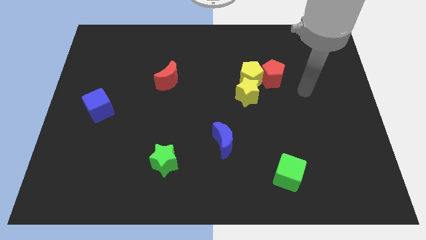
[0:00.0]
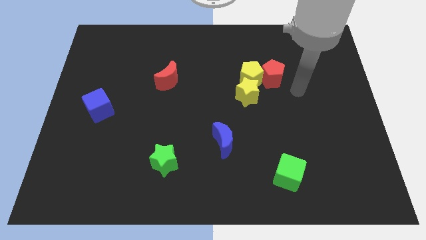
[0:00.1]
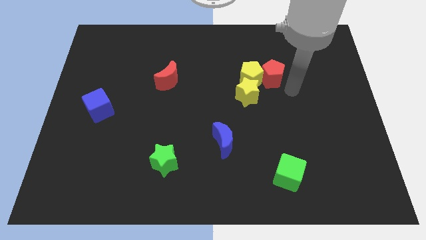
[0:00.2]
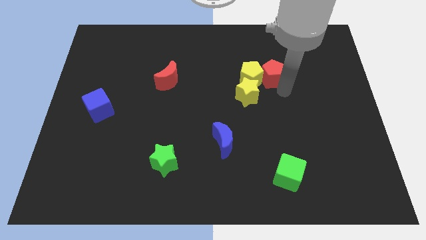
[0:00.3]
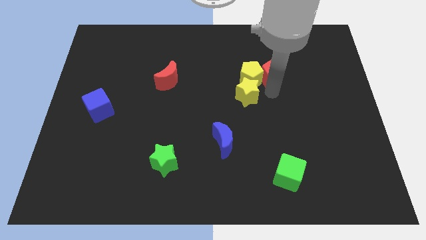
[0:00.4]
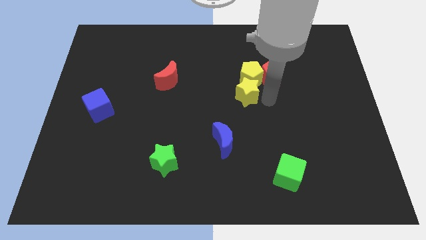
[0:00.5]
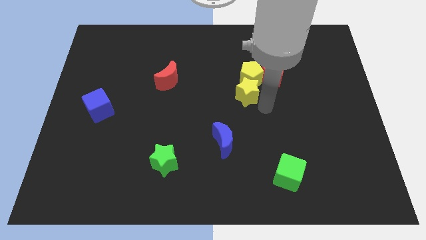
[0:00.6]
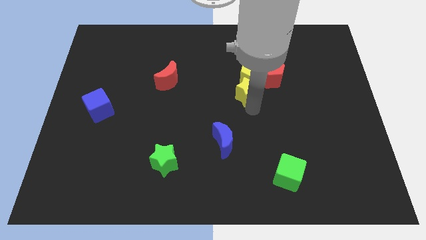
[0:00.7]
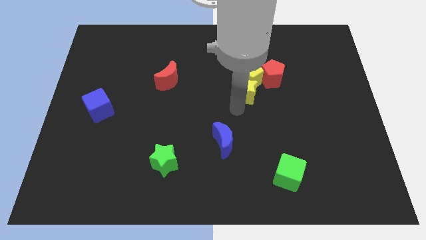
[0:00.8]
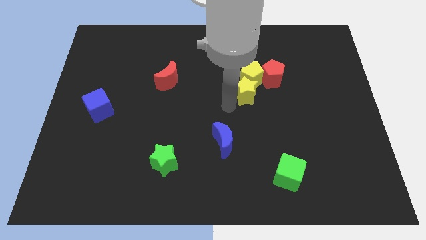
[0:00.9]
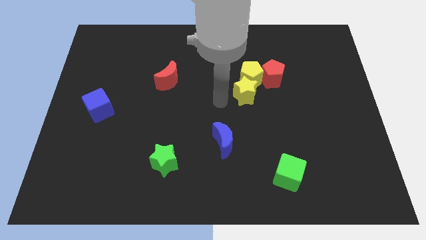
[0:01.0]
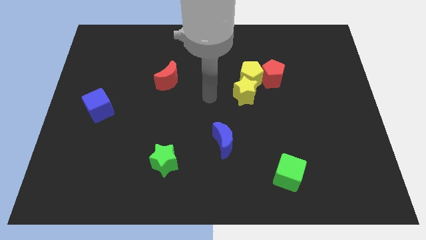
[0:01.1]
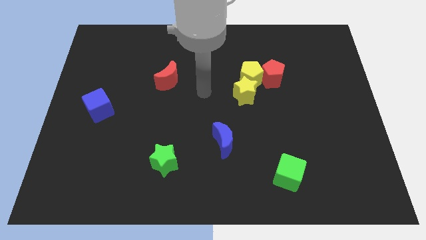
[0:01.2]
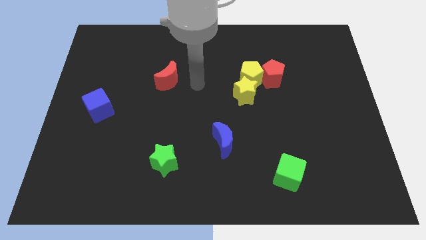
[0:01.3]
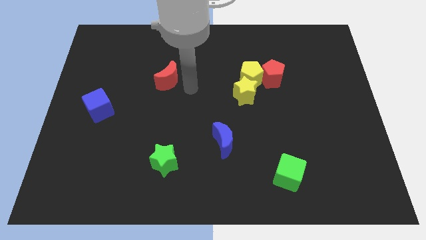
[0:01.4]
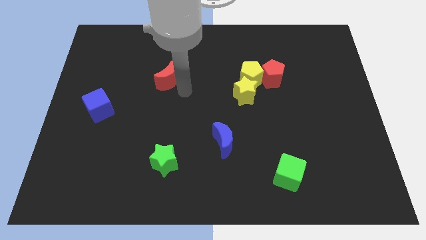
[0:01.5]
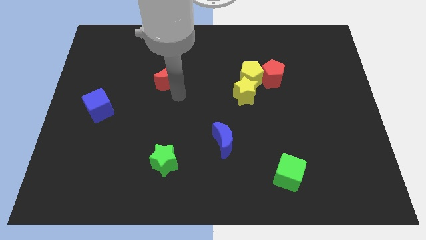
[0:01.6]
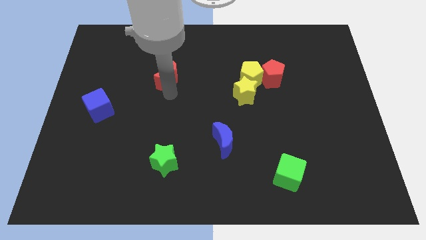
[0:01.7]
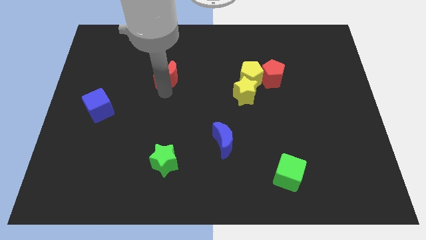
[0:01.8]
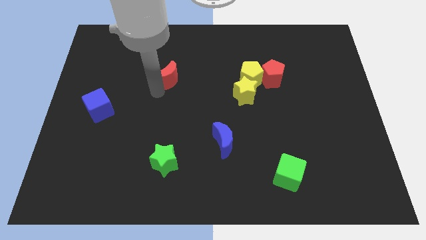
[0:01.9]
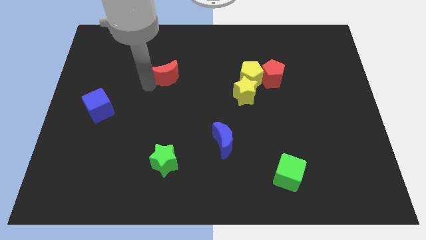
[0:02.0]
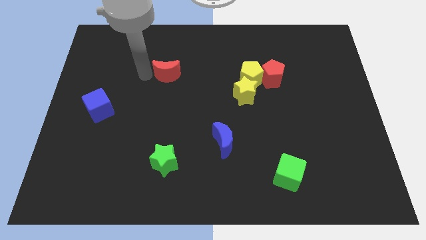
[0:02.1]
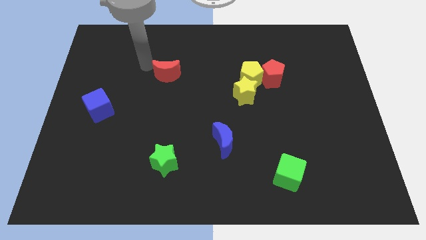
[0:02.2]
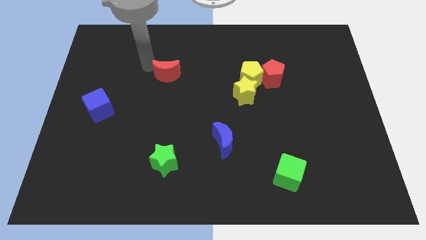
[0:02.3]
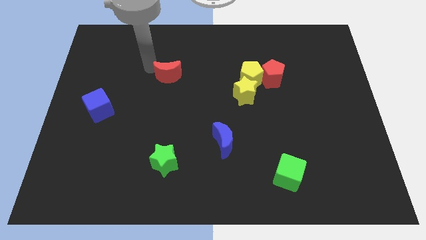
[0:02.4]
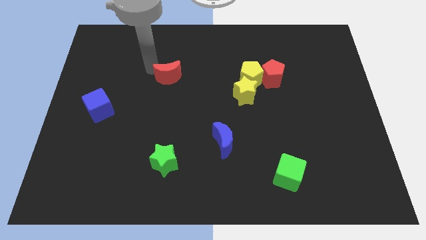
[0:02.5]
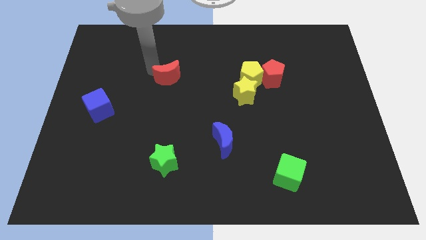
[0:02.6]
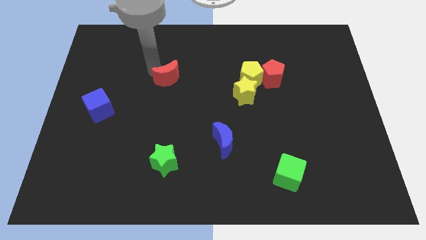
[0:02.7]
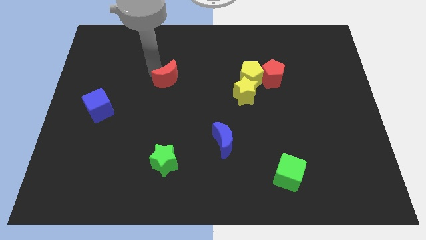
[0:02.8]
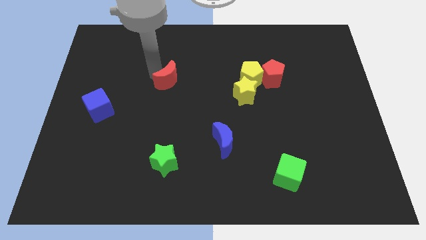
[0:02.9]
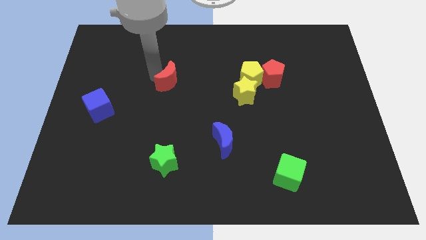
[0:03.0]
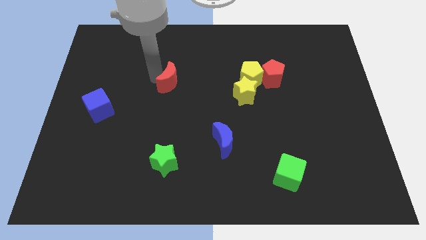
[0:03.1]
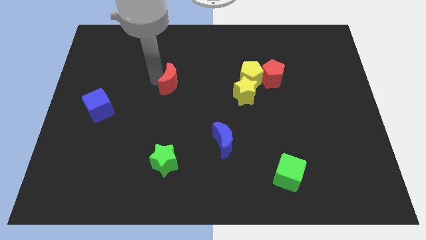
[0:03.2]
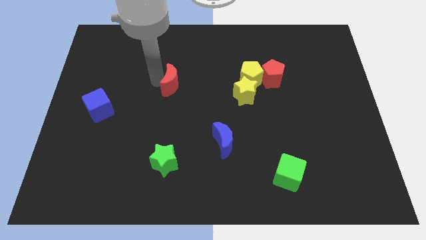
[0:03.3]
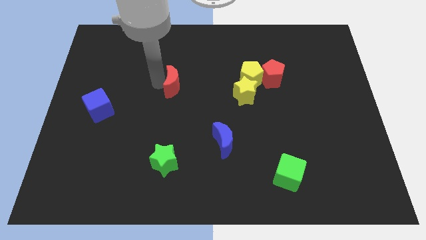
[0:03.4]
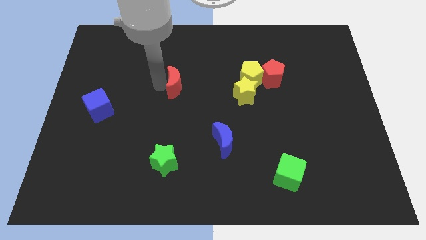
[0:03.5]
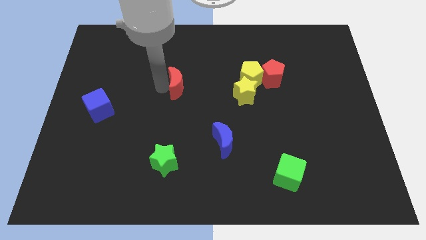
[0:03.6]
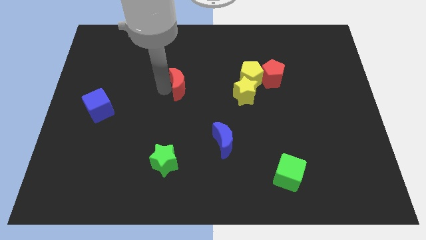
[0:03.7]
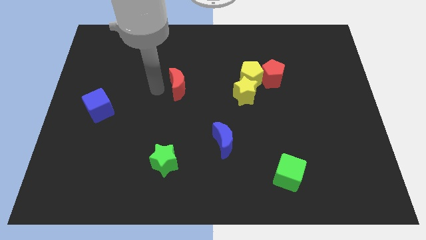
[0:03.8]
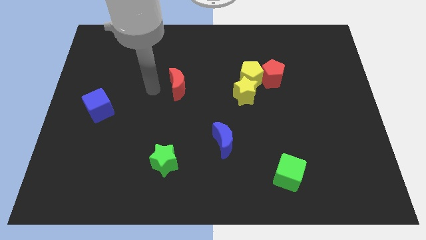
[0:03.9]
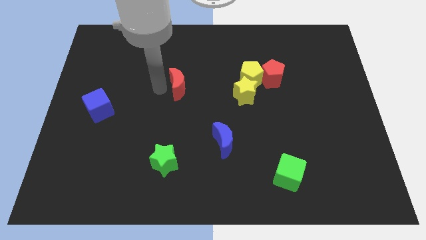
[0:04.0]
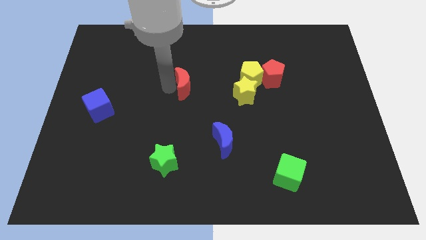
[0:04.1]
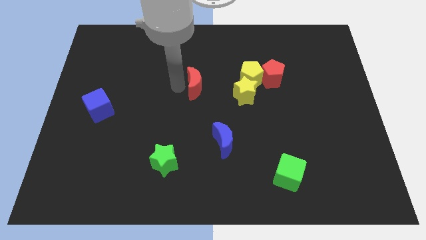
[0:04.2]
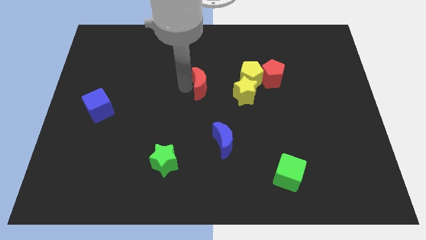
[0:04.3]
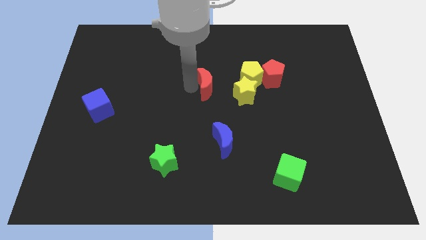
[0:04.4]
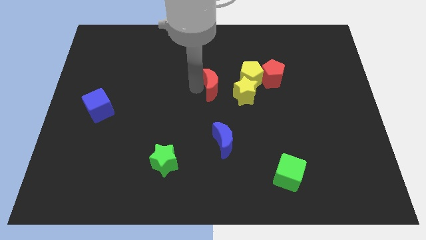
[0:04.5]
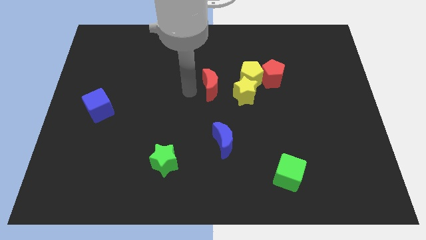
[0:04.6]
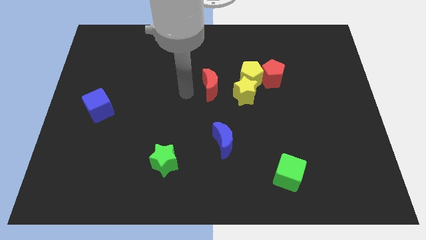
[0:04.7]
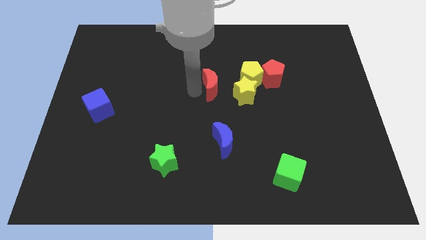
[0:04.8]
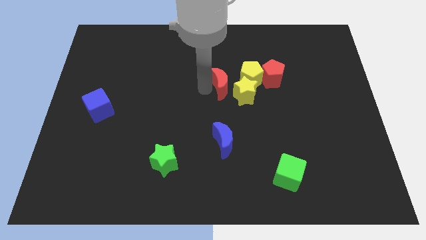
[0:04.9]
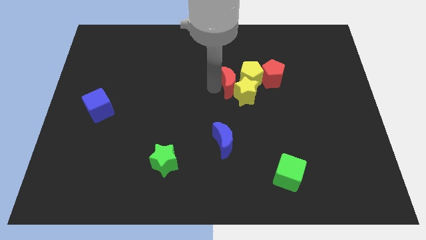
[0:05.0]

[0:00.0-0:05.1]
push the red moon towards the yellow pentagon
